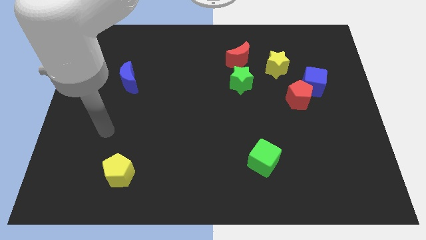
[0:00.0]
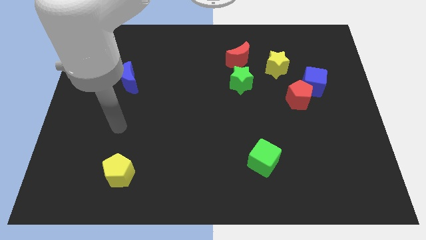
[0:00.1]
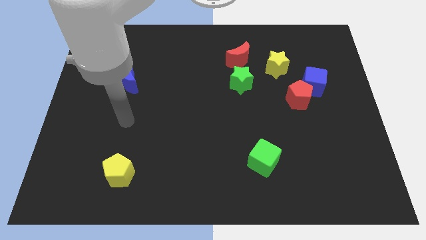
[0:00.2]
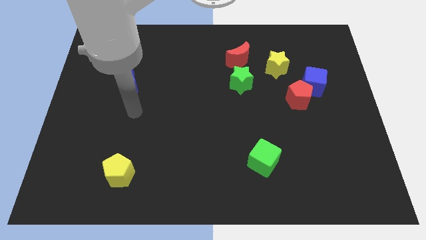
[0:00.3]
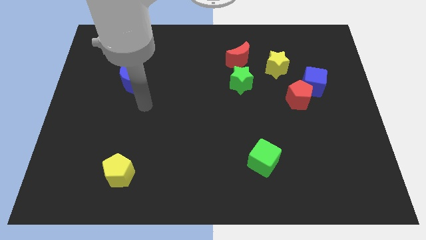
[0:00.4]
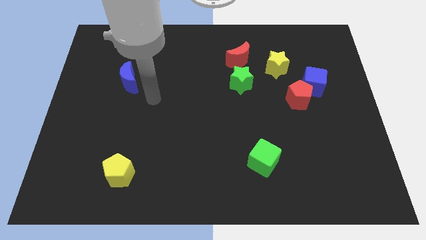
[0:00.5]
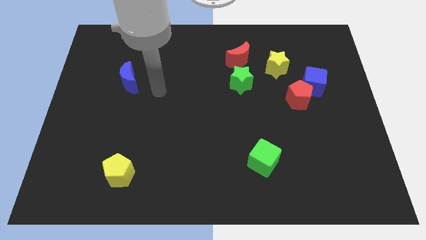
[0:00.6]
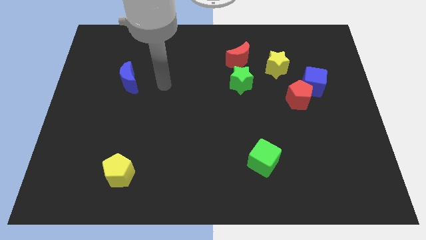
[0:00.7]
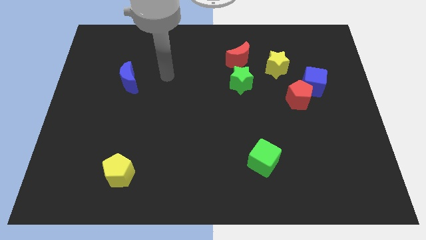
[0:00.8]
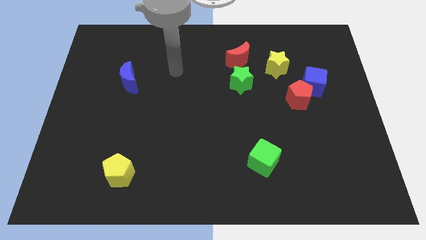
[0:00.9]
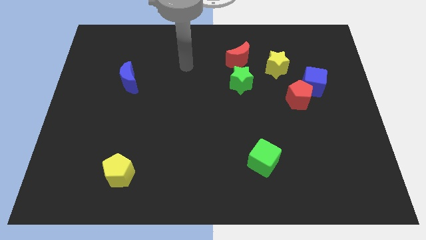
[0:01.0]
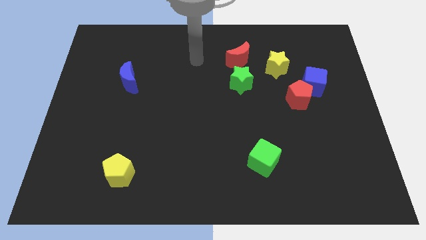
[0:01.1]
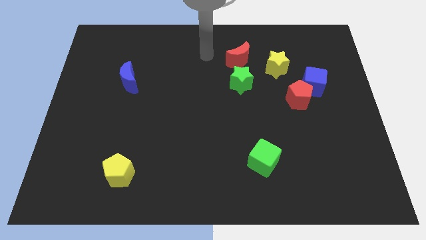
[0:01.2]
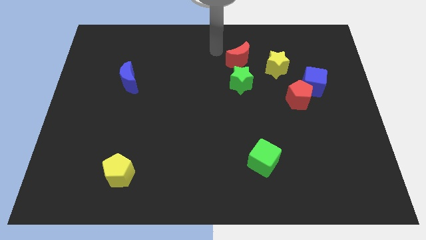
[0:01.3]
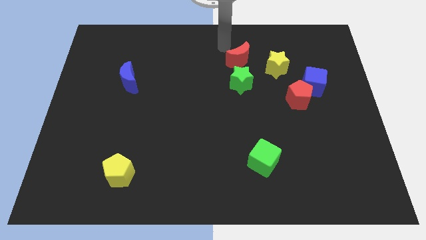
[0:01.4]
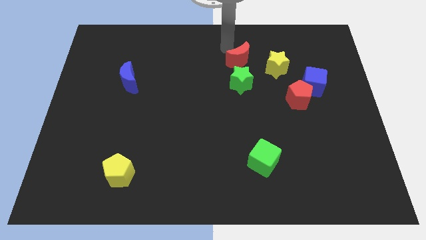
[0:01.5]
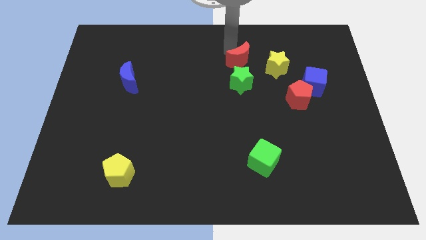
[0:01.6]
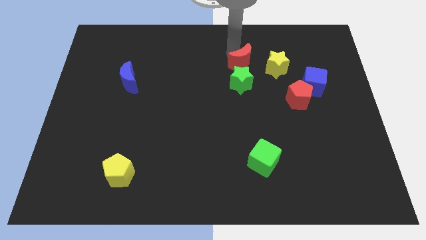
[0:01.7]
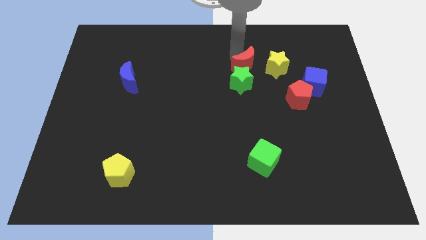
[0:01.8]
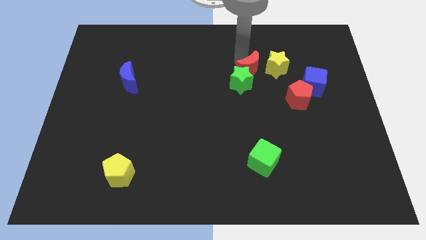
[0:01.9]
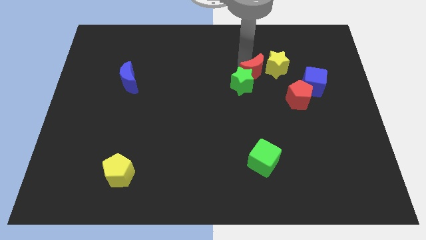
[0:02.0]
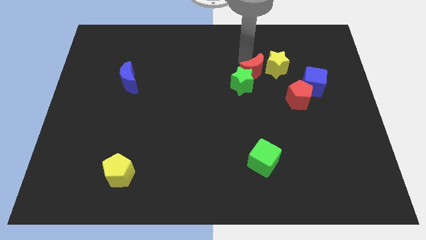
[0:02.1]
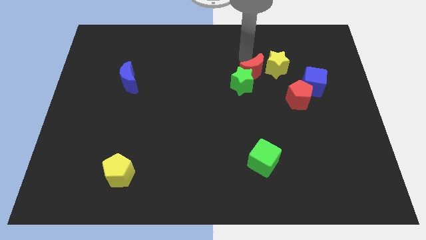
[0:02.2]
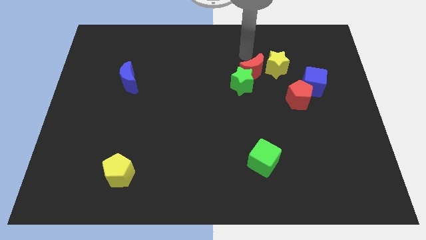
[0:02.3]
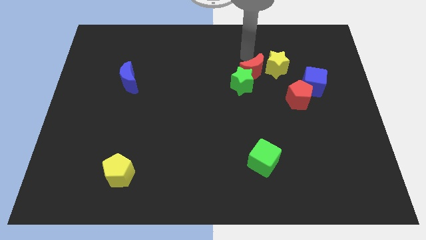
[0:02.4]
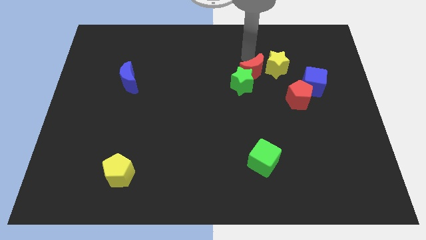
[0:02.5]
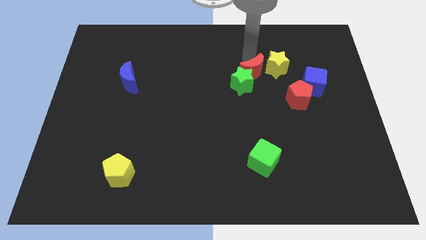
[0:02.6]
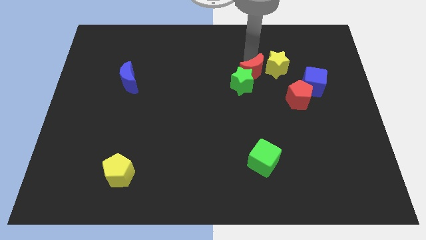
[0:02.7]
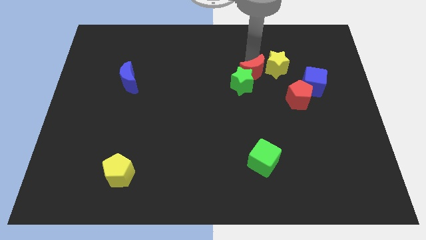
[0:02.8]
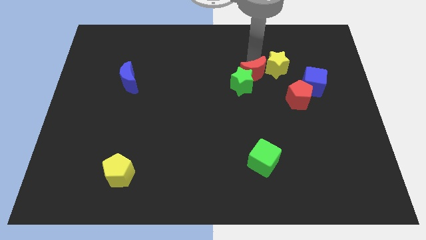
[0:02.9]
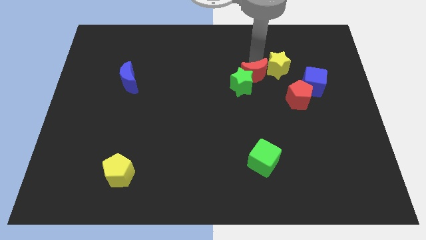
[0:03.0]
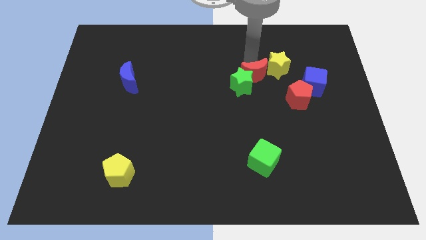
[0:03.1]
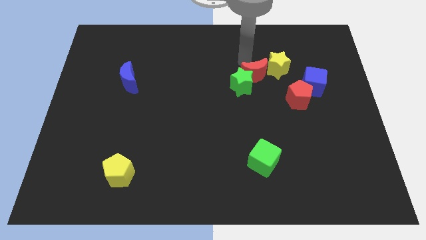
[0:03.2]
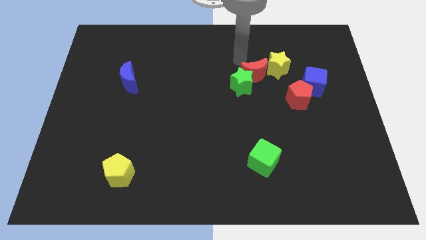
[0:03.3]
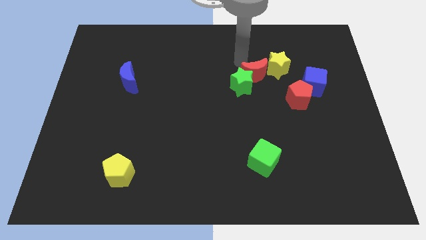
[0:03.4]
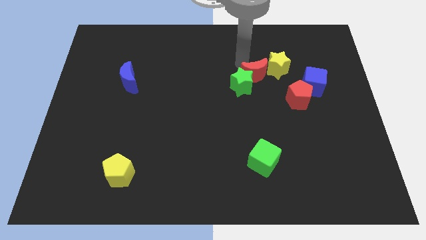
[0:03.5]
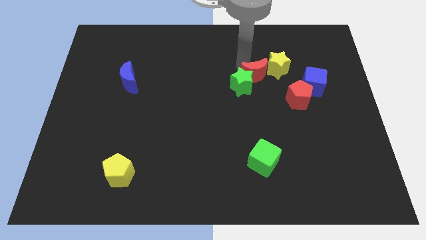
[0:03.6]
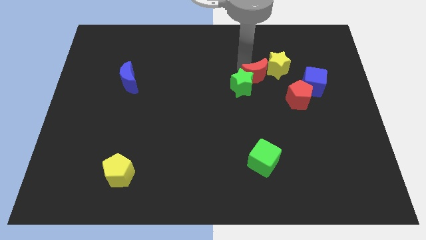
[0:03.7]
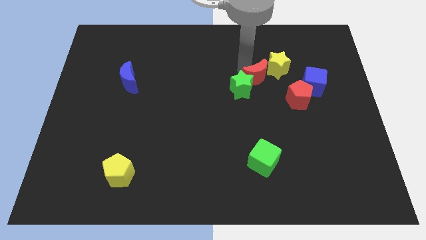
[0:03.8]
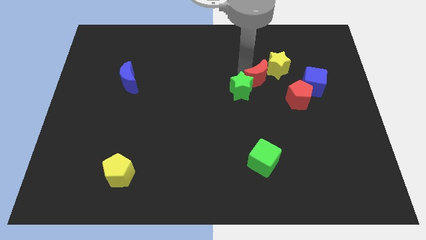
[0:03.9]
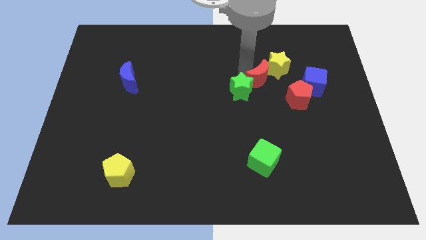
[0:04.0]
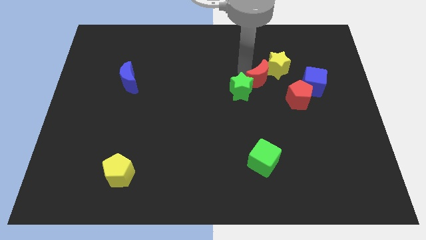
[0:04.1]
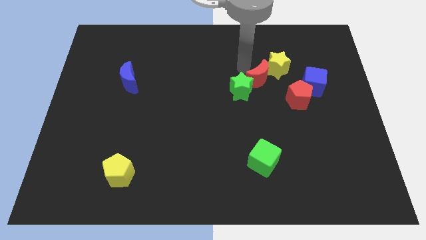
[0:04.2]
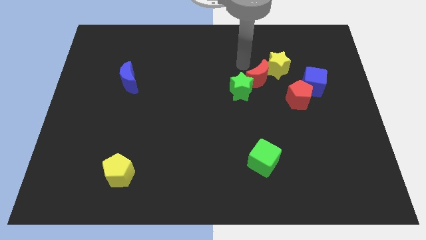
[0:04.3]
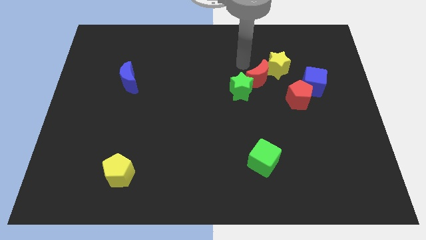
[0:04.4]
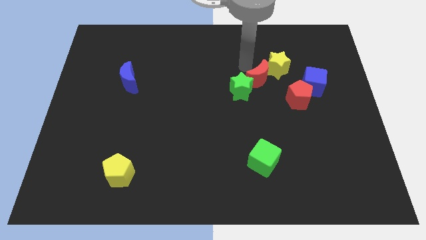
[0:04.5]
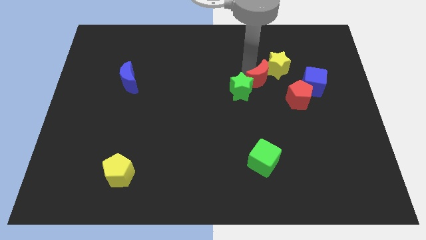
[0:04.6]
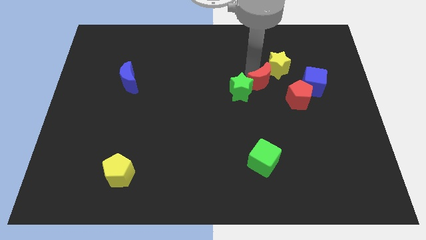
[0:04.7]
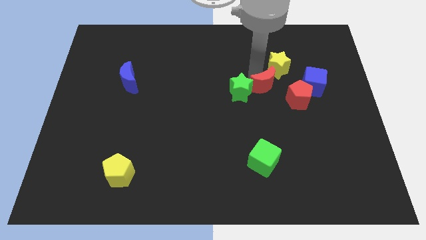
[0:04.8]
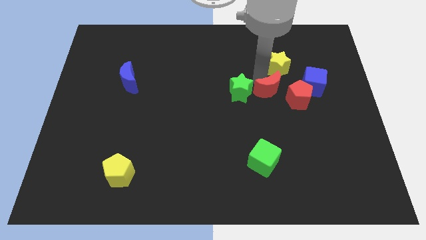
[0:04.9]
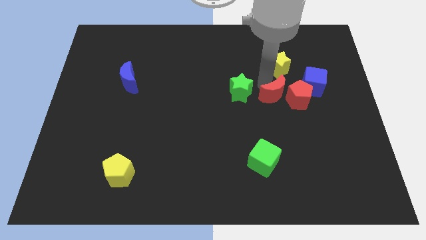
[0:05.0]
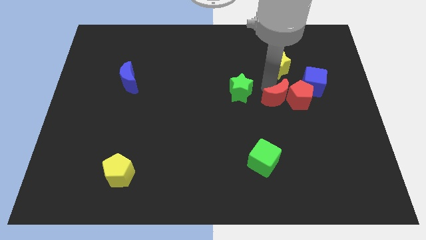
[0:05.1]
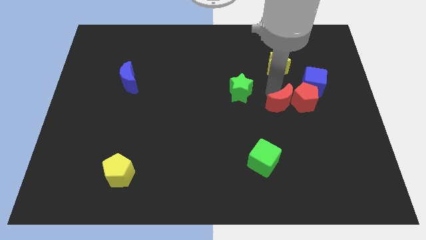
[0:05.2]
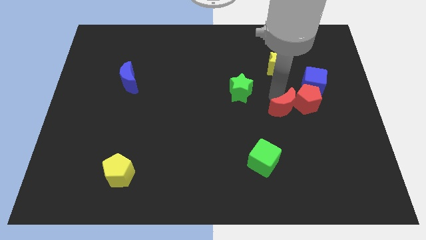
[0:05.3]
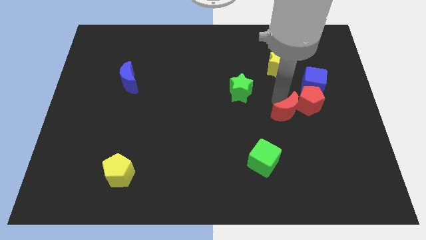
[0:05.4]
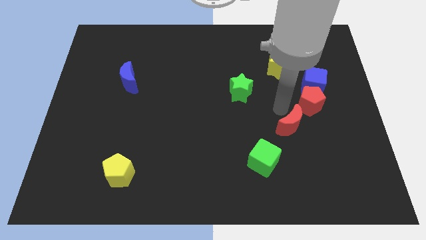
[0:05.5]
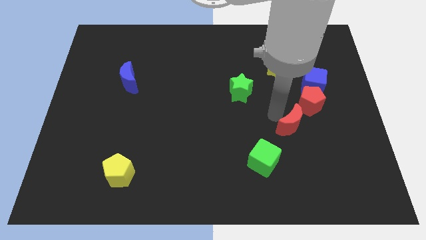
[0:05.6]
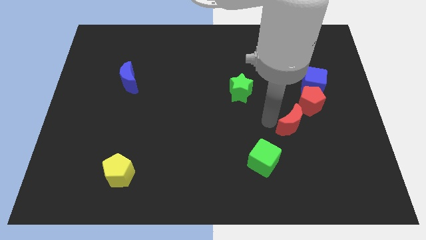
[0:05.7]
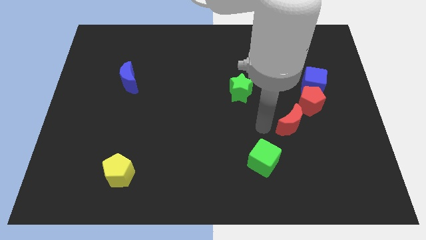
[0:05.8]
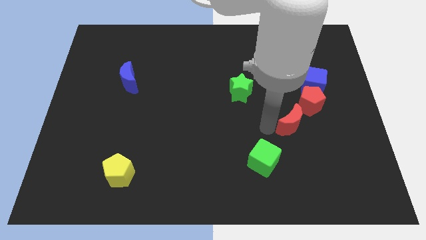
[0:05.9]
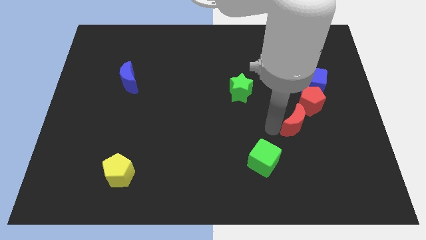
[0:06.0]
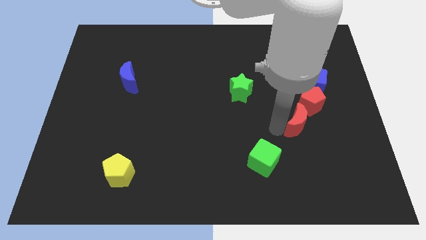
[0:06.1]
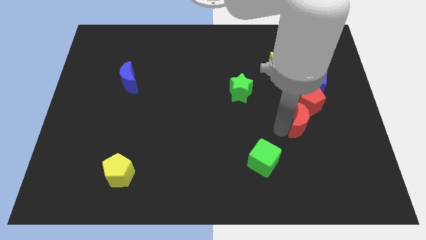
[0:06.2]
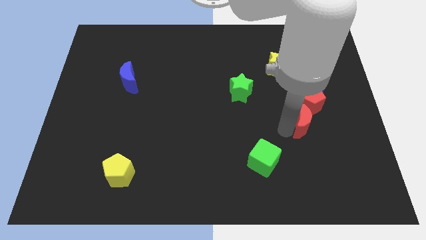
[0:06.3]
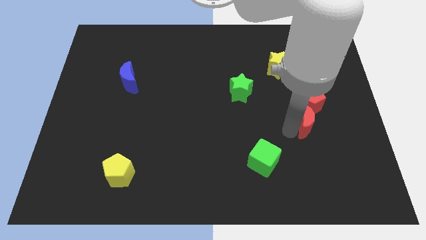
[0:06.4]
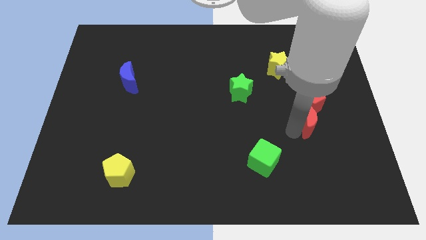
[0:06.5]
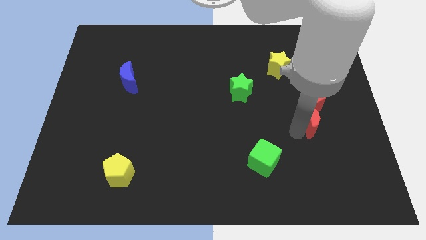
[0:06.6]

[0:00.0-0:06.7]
put the red moon to the bottom right of the red pentagon

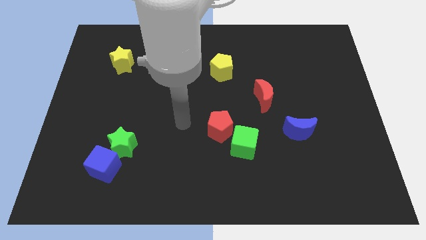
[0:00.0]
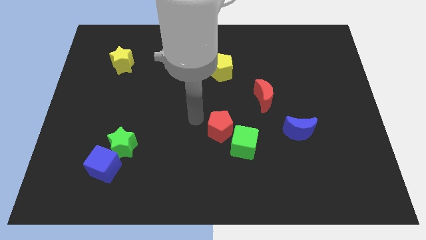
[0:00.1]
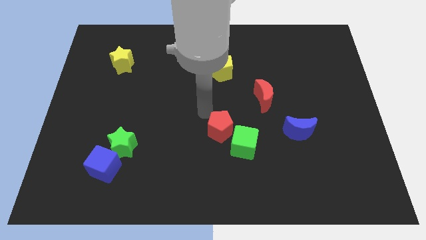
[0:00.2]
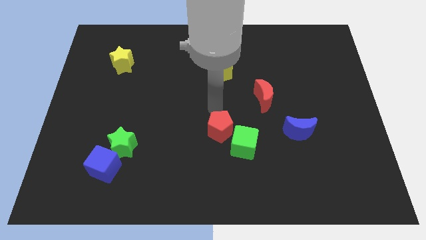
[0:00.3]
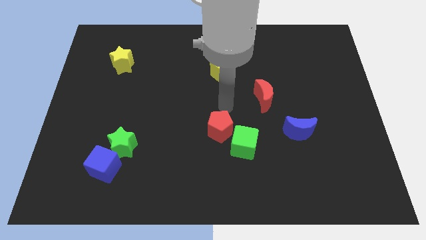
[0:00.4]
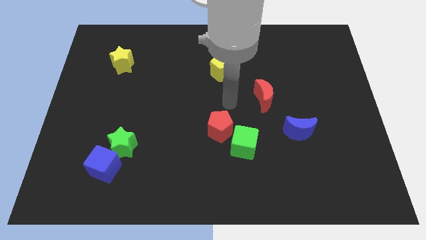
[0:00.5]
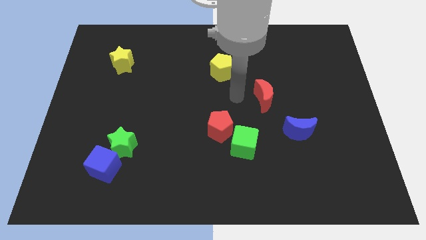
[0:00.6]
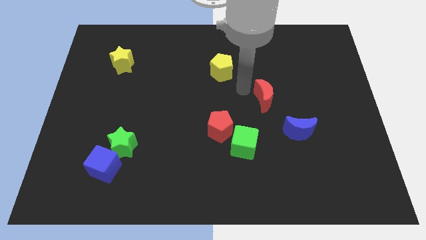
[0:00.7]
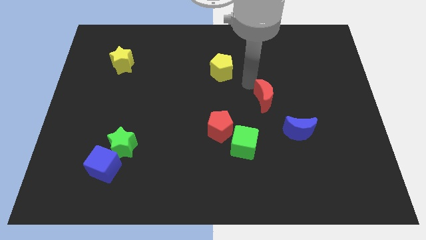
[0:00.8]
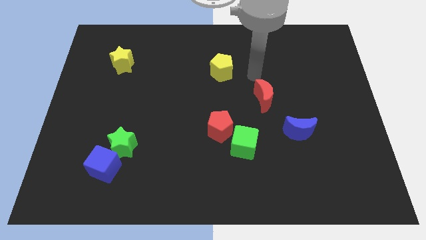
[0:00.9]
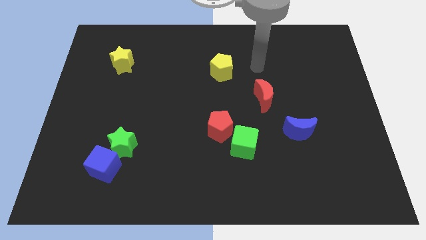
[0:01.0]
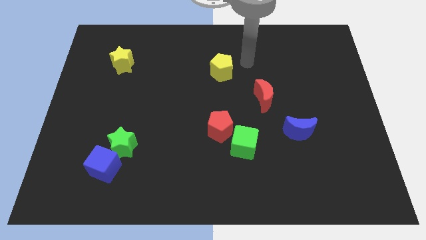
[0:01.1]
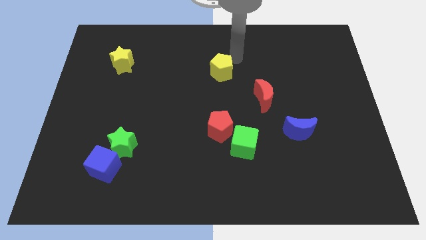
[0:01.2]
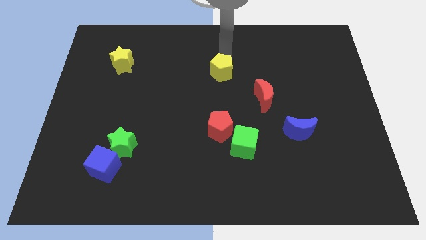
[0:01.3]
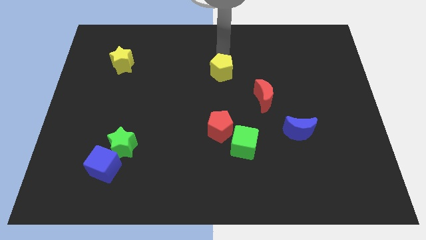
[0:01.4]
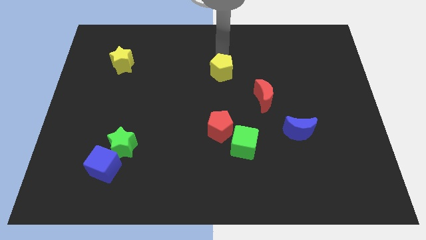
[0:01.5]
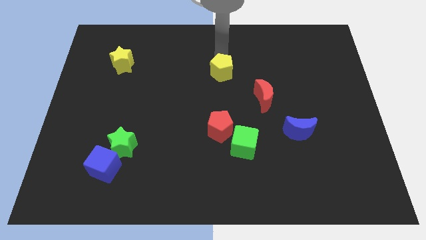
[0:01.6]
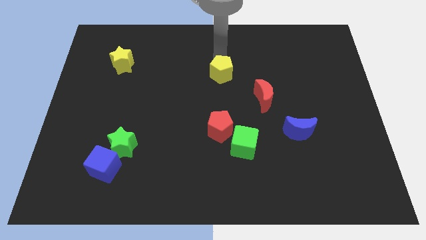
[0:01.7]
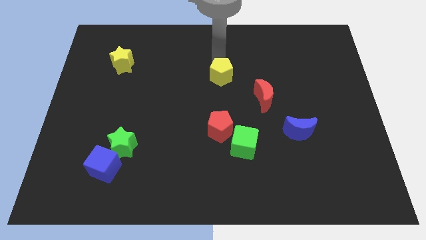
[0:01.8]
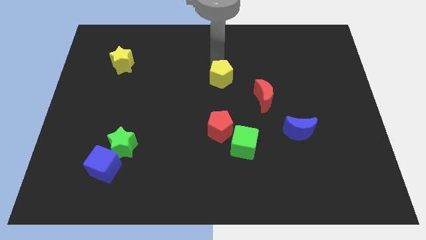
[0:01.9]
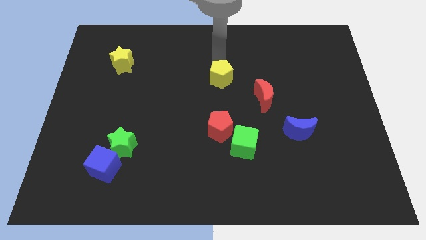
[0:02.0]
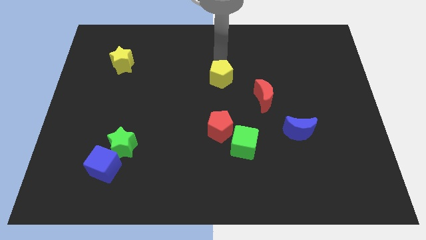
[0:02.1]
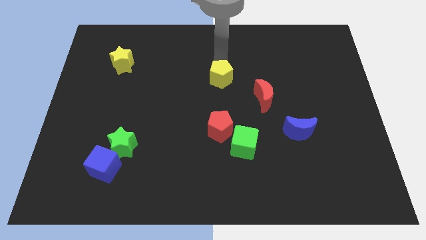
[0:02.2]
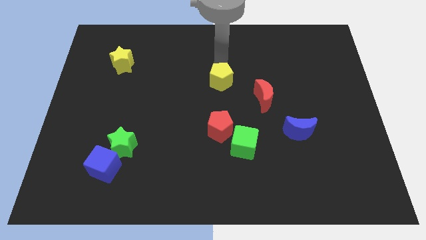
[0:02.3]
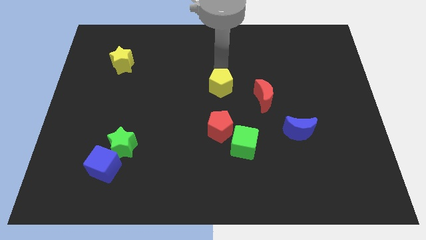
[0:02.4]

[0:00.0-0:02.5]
slide the yellow pentagon left of the red moon
